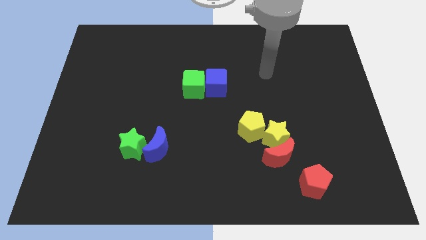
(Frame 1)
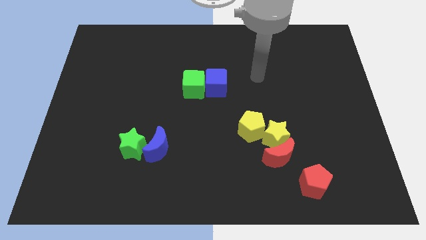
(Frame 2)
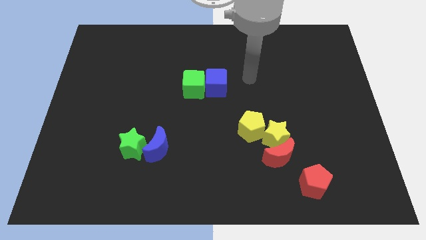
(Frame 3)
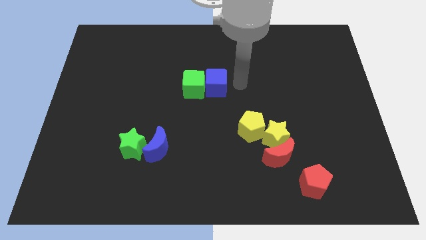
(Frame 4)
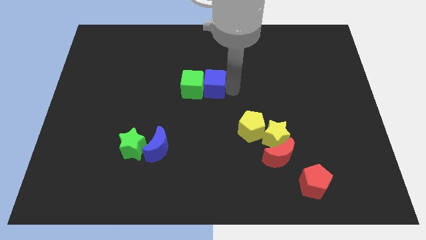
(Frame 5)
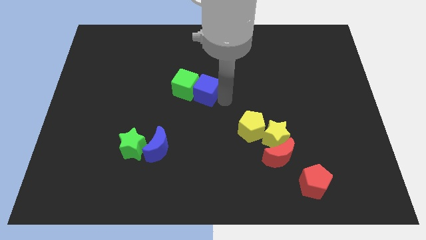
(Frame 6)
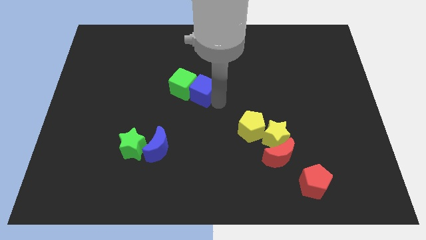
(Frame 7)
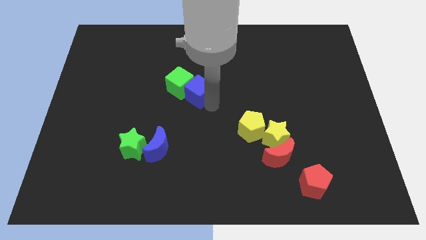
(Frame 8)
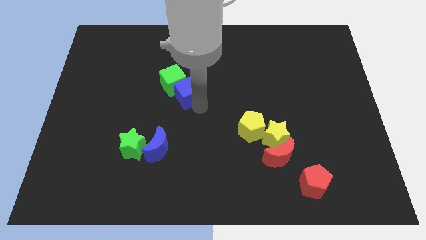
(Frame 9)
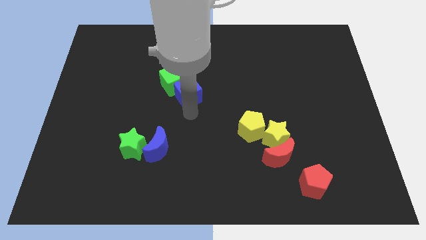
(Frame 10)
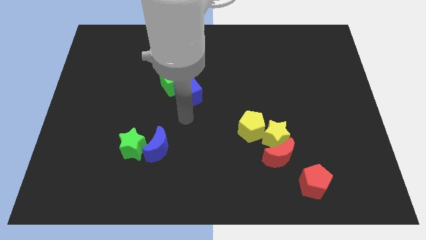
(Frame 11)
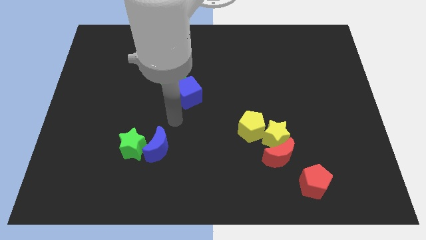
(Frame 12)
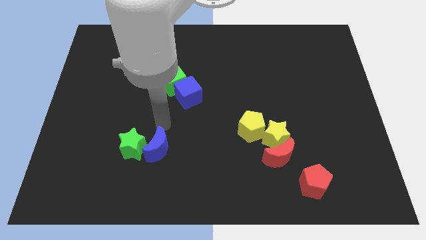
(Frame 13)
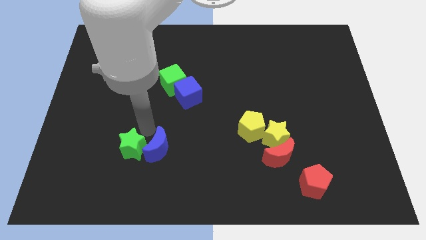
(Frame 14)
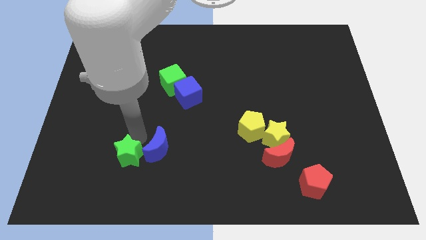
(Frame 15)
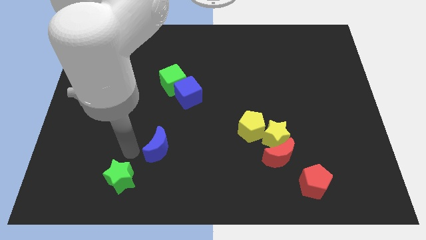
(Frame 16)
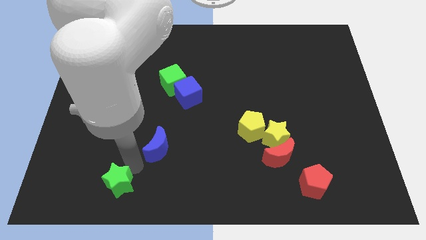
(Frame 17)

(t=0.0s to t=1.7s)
separate the blue moon from the green star

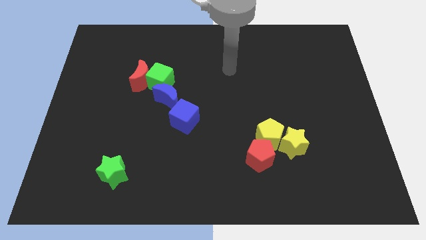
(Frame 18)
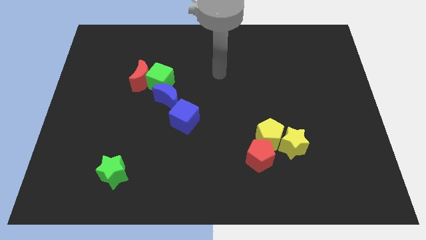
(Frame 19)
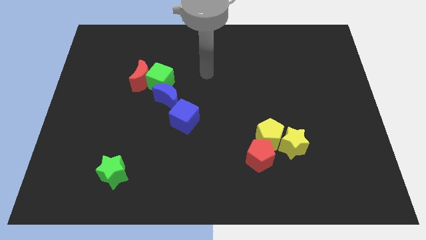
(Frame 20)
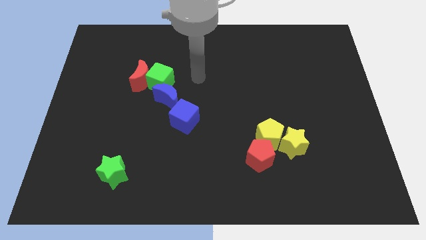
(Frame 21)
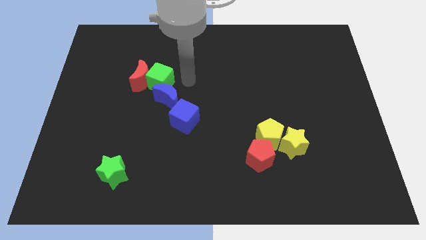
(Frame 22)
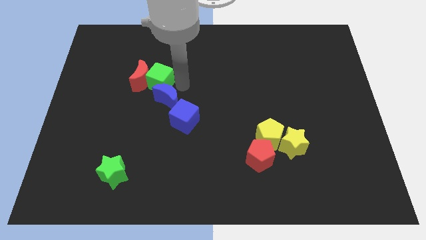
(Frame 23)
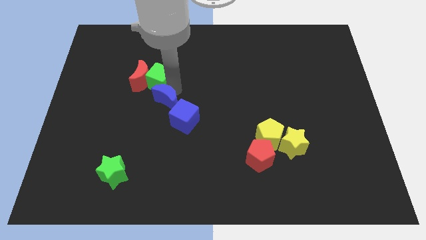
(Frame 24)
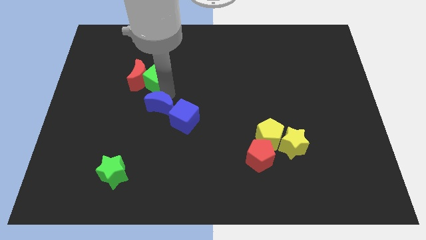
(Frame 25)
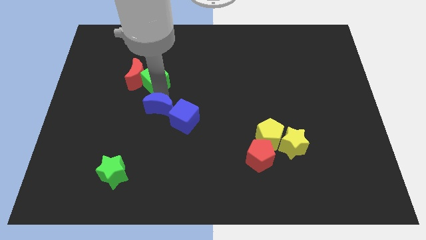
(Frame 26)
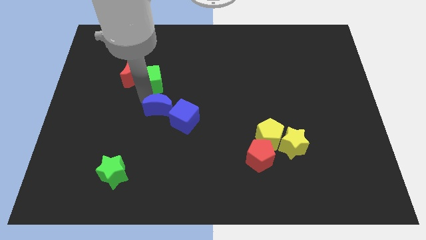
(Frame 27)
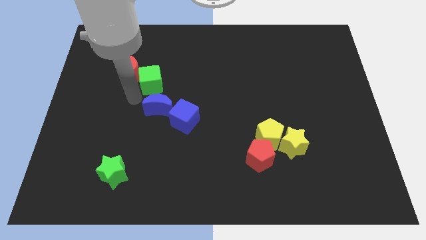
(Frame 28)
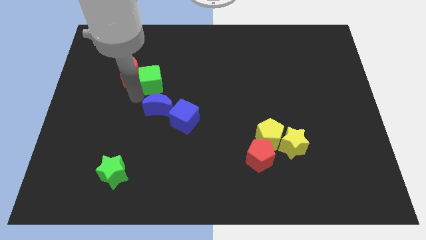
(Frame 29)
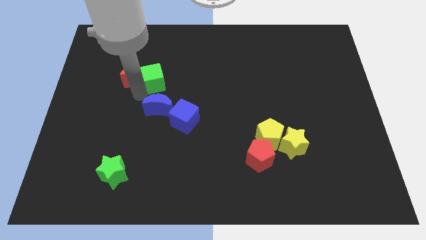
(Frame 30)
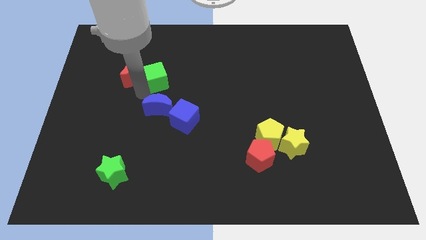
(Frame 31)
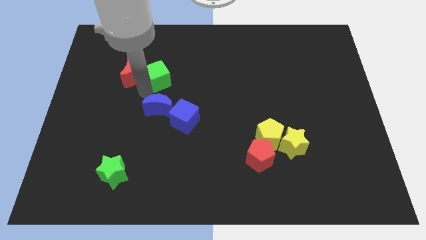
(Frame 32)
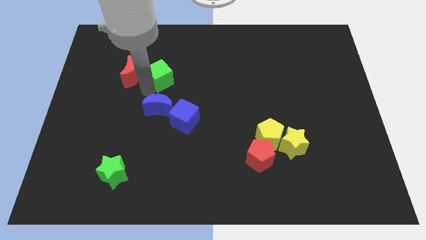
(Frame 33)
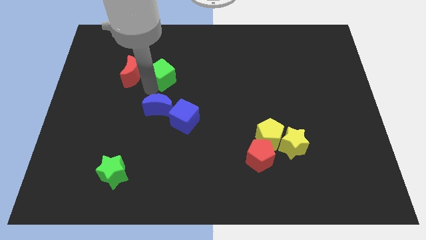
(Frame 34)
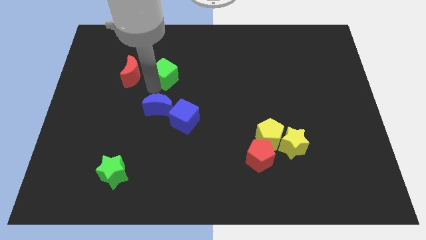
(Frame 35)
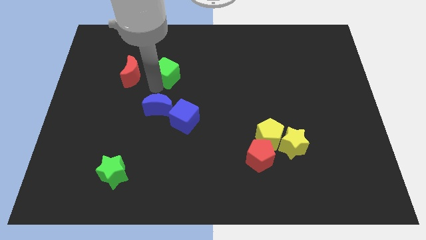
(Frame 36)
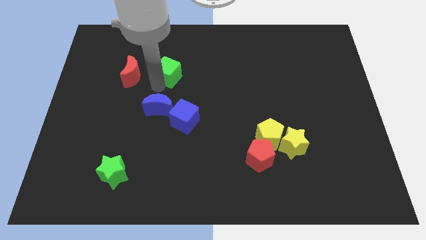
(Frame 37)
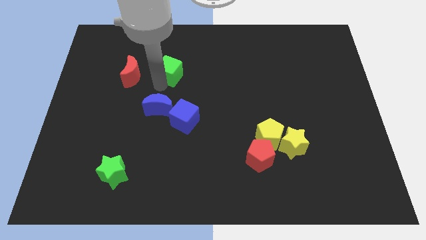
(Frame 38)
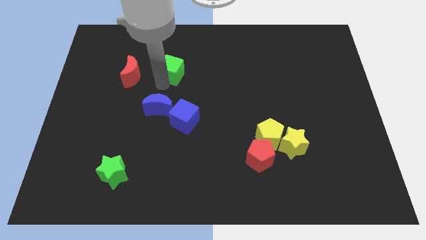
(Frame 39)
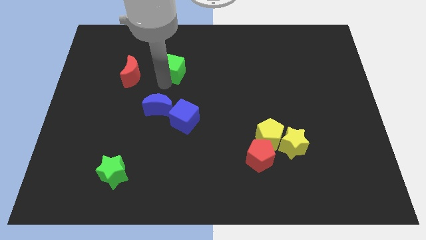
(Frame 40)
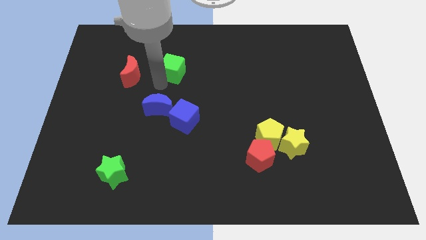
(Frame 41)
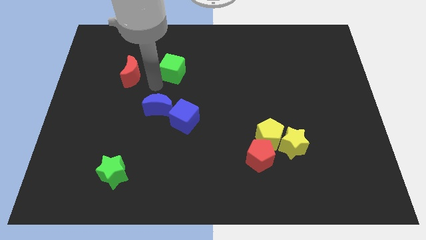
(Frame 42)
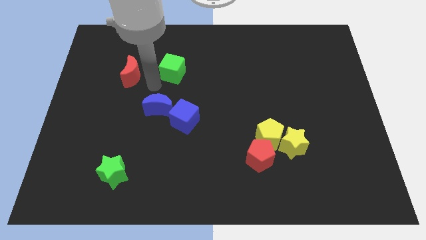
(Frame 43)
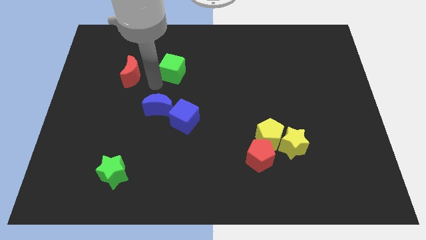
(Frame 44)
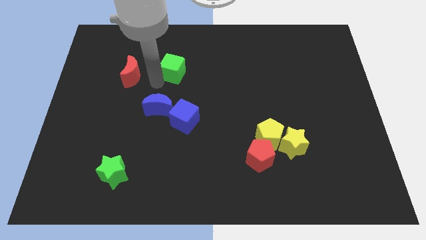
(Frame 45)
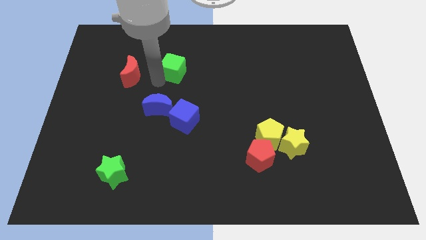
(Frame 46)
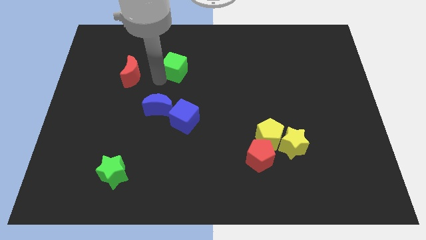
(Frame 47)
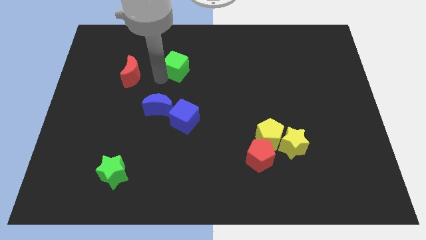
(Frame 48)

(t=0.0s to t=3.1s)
separate the green cube from the red moon and blue moon

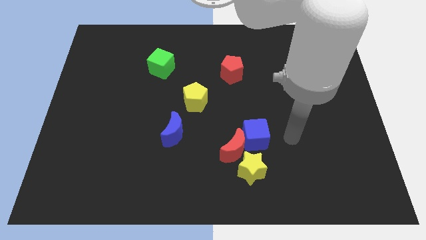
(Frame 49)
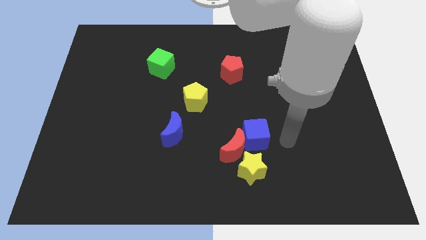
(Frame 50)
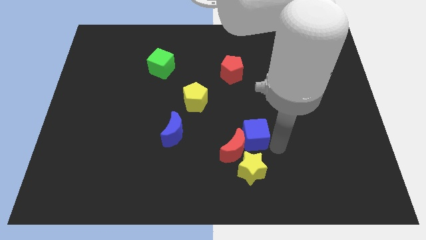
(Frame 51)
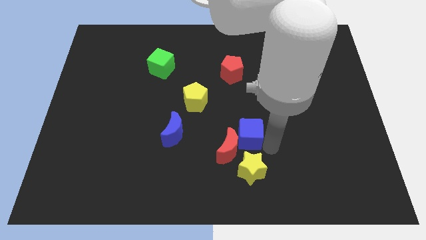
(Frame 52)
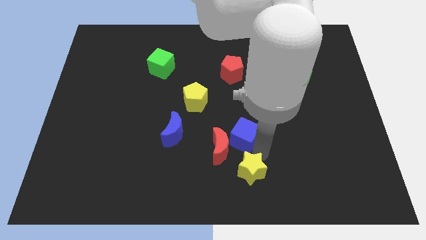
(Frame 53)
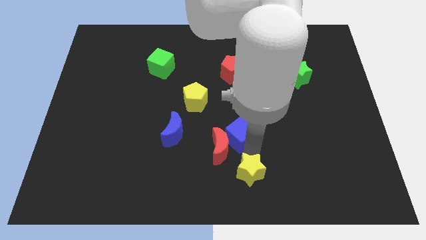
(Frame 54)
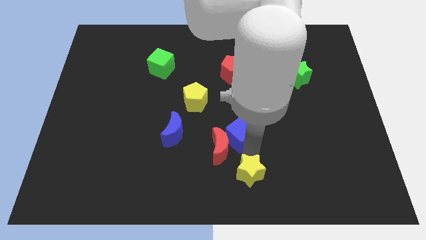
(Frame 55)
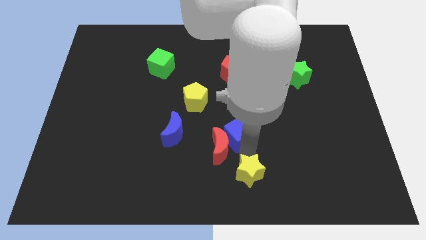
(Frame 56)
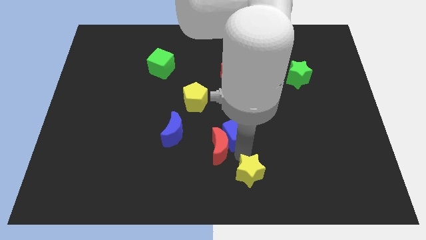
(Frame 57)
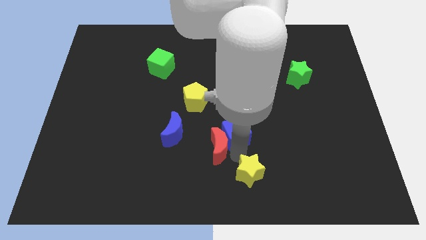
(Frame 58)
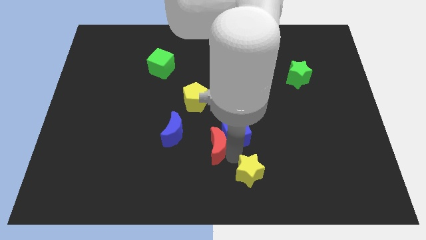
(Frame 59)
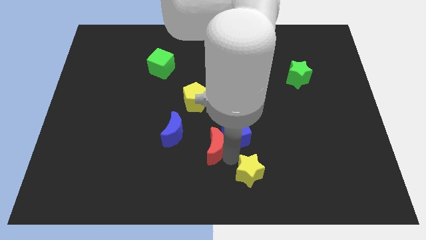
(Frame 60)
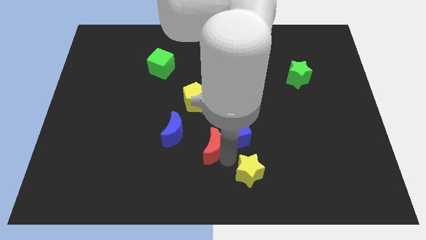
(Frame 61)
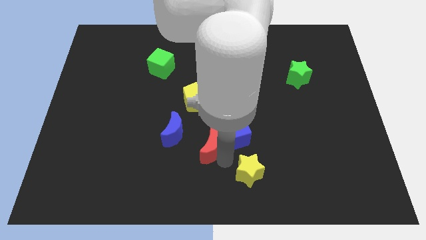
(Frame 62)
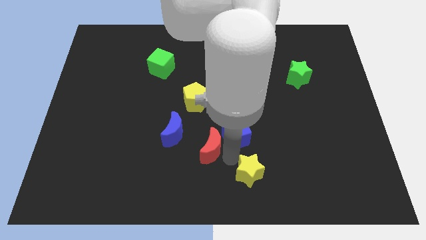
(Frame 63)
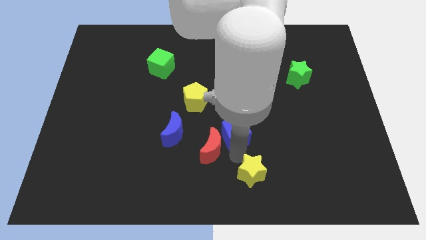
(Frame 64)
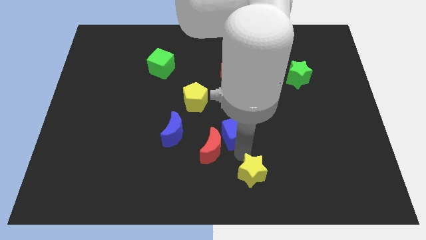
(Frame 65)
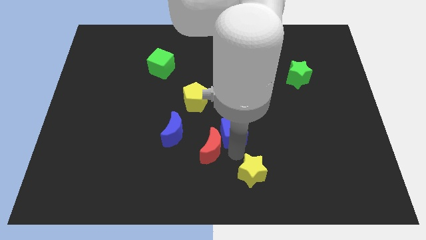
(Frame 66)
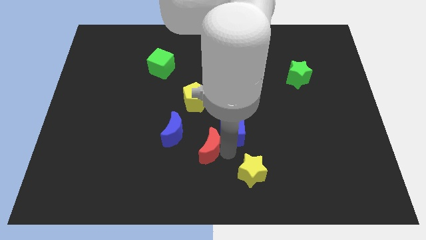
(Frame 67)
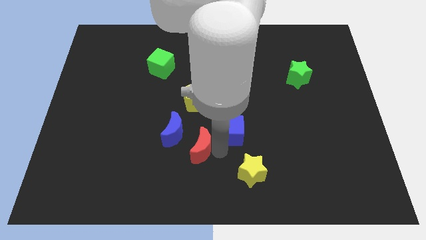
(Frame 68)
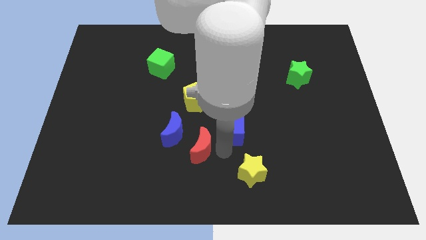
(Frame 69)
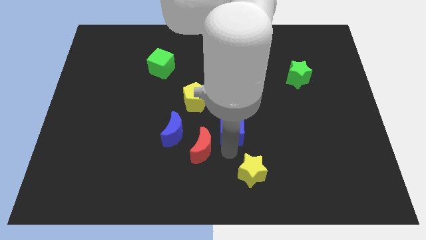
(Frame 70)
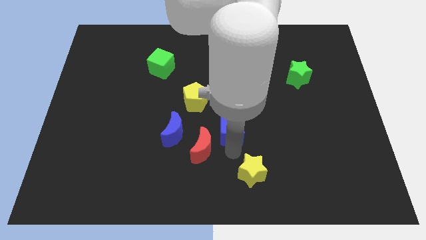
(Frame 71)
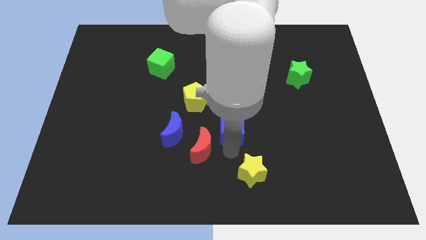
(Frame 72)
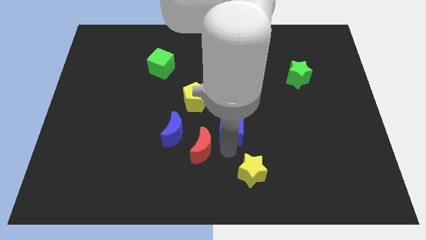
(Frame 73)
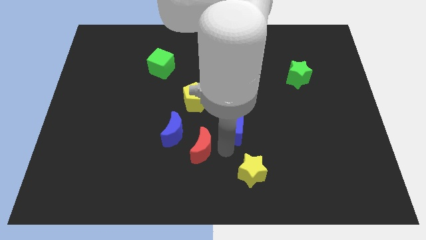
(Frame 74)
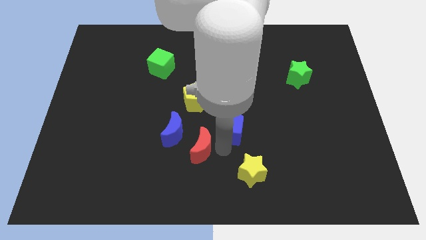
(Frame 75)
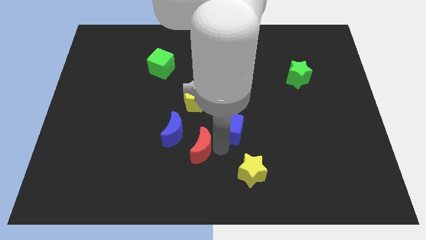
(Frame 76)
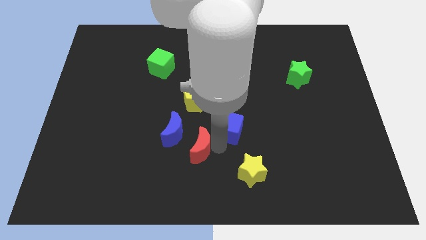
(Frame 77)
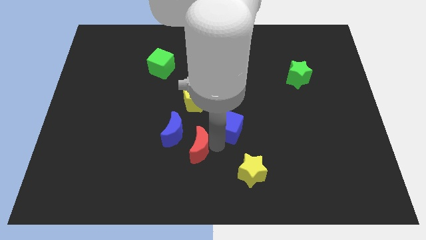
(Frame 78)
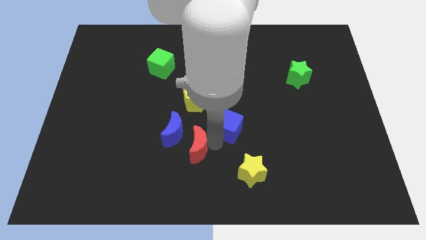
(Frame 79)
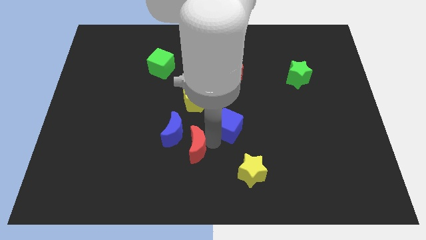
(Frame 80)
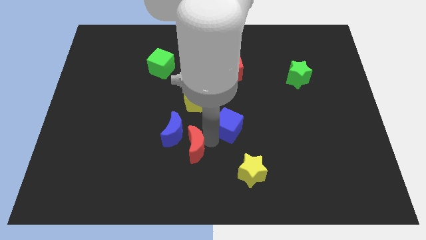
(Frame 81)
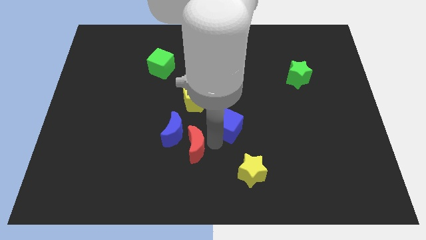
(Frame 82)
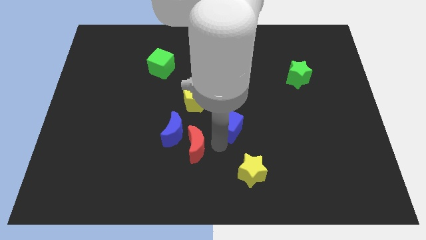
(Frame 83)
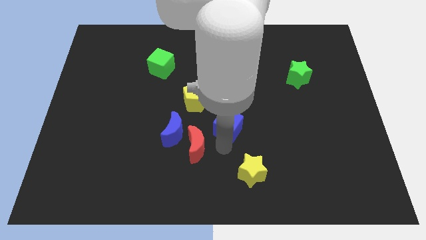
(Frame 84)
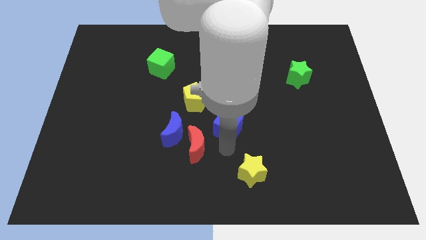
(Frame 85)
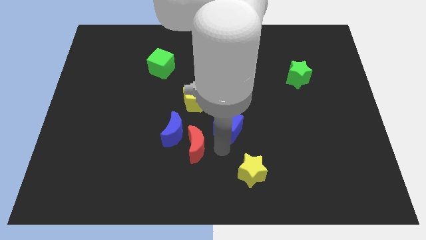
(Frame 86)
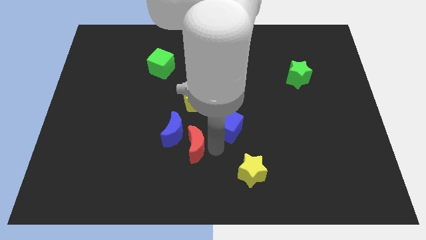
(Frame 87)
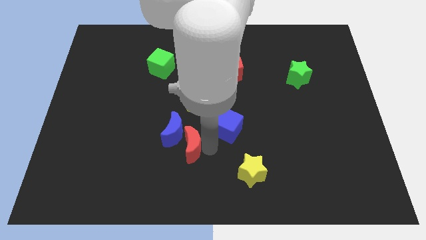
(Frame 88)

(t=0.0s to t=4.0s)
move the red moon away from the blue cube and yellow star

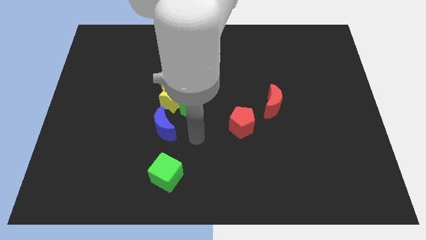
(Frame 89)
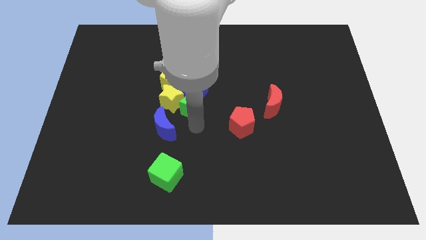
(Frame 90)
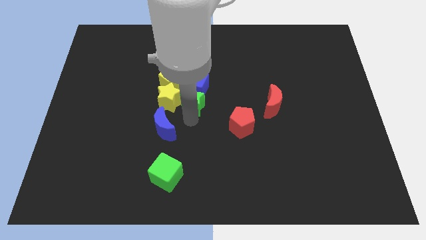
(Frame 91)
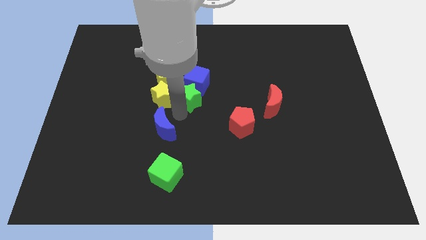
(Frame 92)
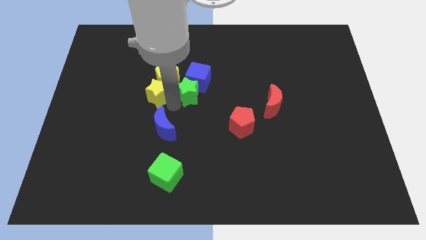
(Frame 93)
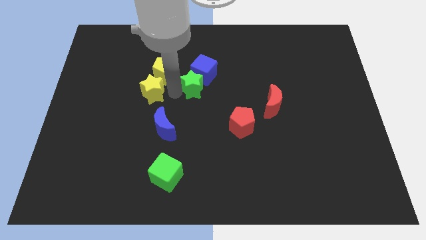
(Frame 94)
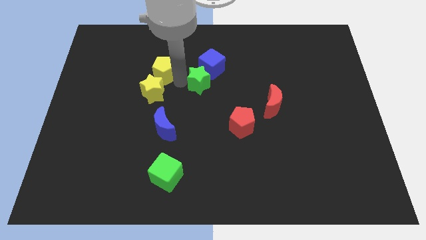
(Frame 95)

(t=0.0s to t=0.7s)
pull the blue cube apart from the yellow pentagon, green star, and yellow star
